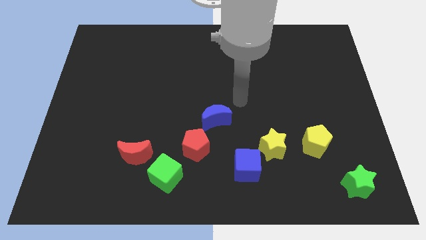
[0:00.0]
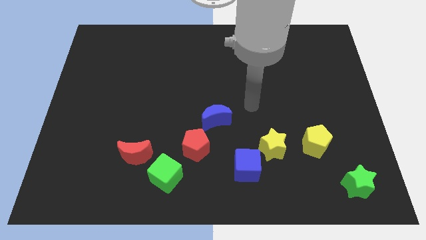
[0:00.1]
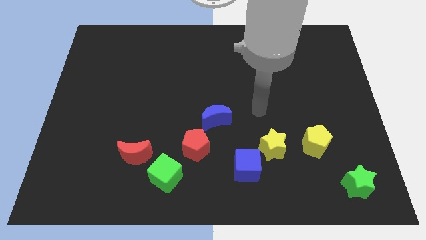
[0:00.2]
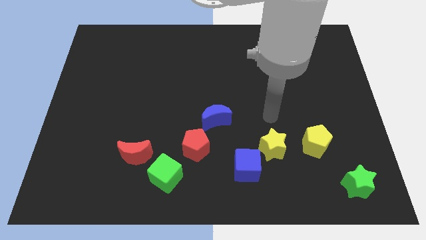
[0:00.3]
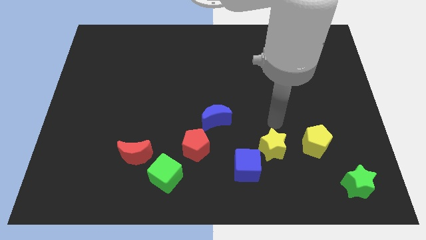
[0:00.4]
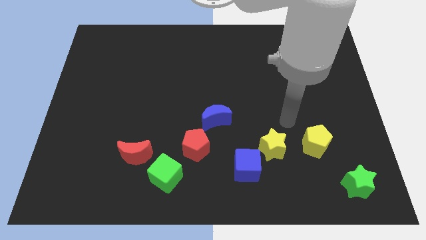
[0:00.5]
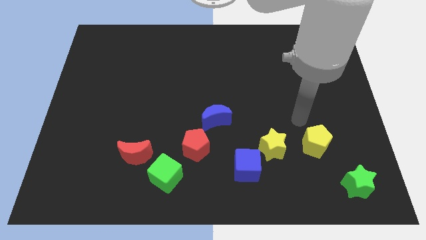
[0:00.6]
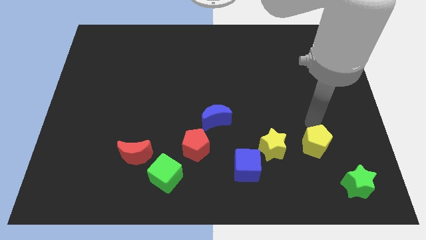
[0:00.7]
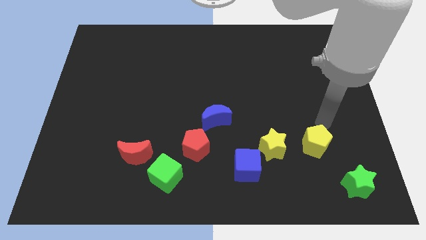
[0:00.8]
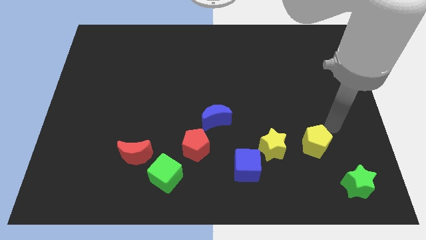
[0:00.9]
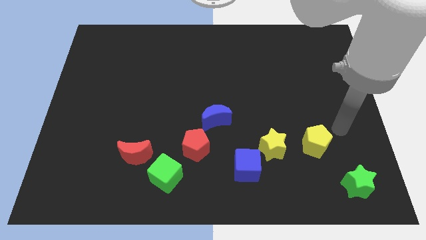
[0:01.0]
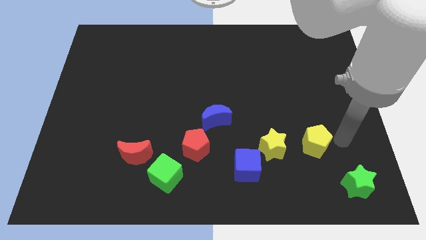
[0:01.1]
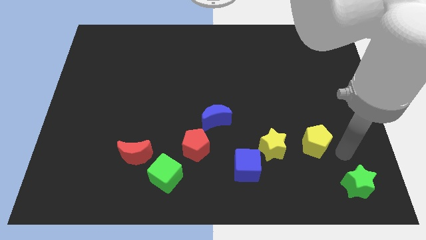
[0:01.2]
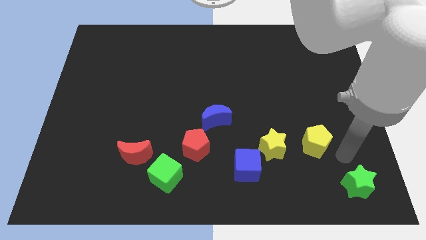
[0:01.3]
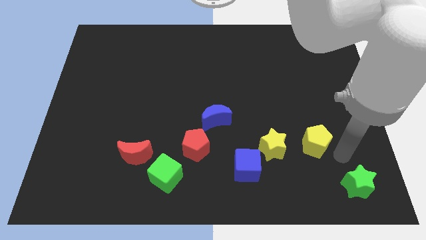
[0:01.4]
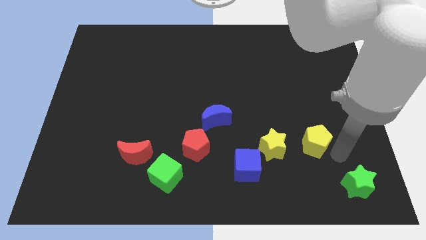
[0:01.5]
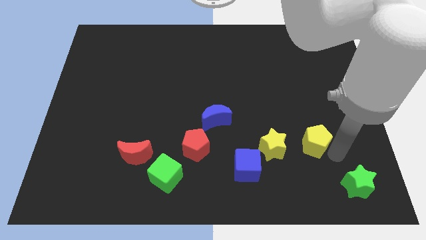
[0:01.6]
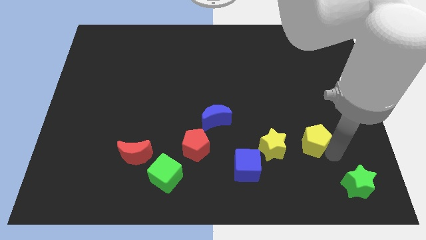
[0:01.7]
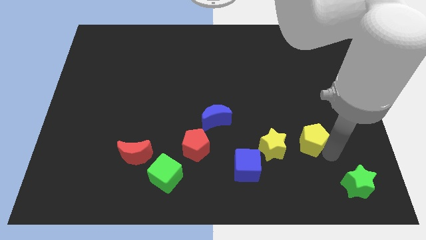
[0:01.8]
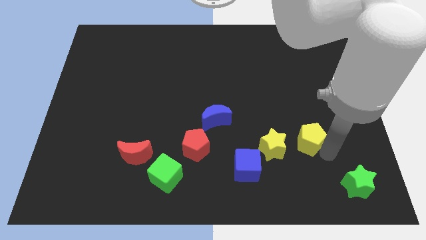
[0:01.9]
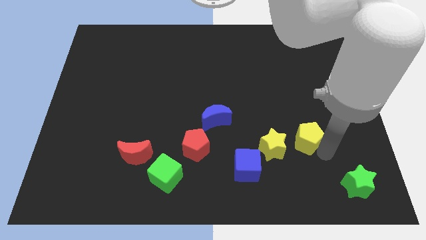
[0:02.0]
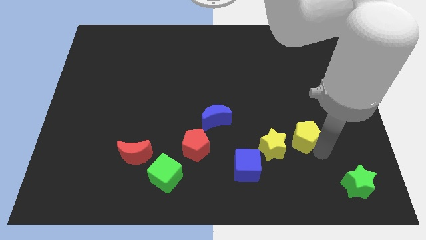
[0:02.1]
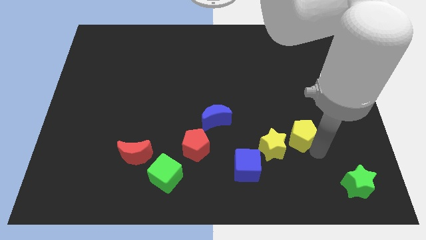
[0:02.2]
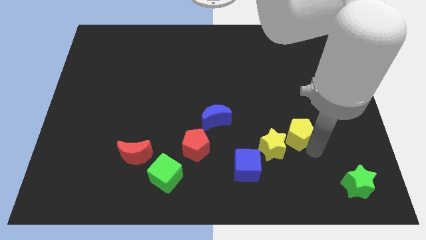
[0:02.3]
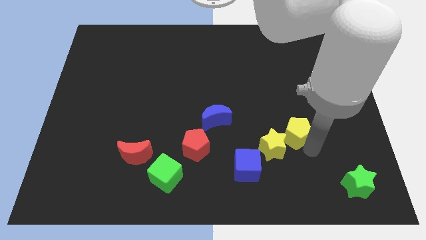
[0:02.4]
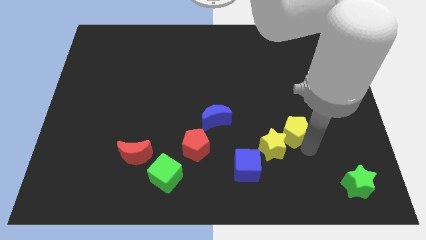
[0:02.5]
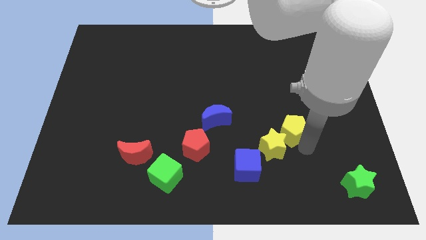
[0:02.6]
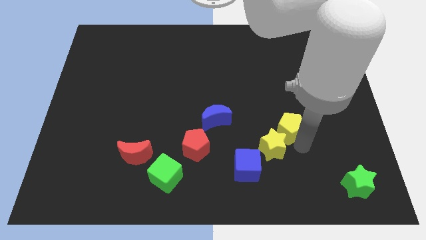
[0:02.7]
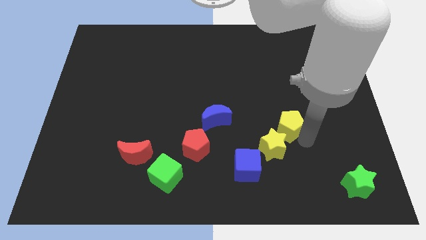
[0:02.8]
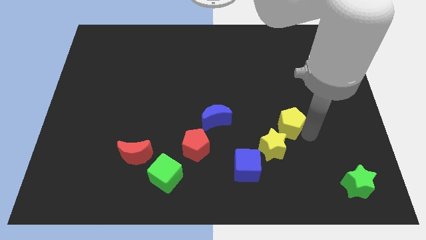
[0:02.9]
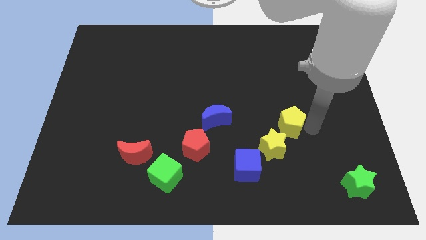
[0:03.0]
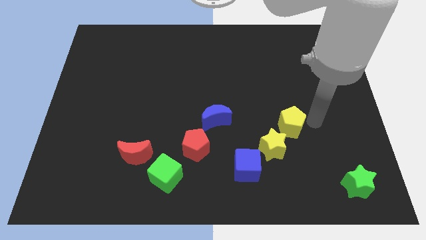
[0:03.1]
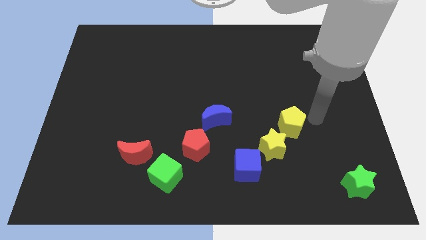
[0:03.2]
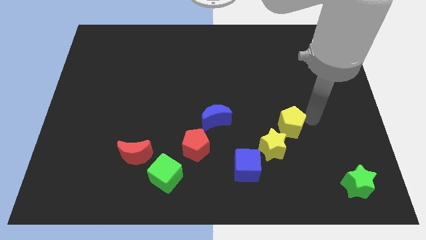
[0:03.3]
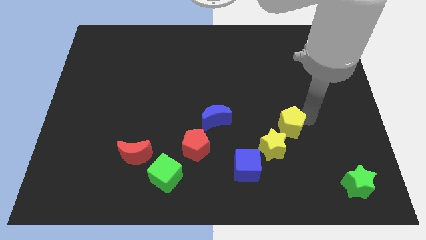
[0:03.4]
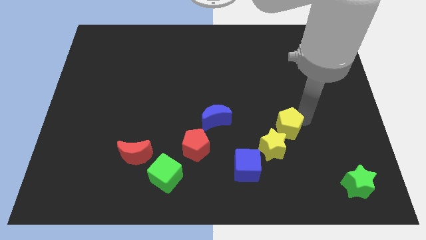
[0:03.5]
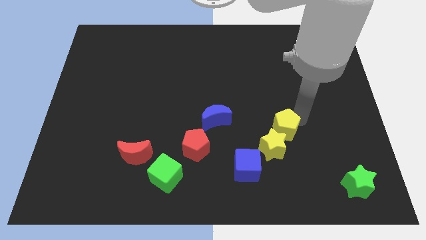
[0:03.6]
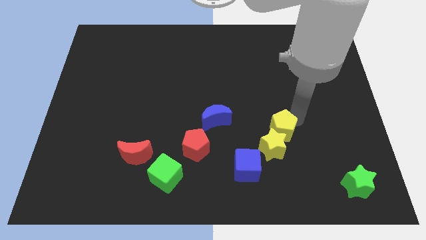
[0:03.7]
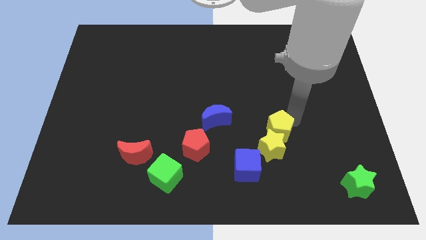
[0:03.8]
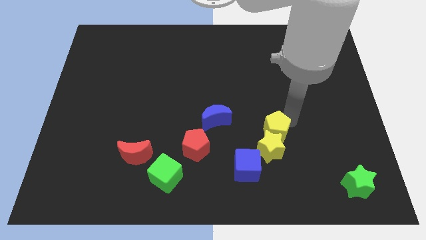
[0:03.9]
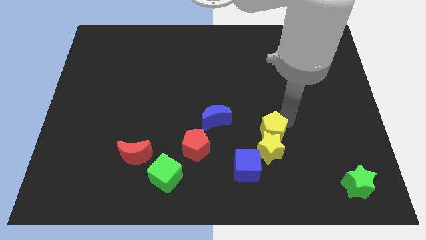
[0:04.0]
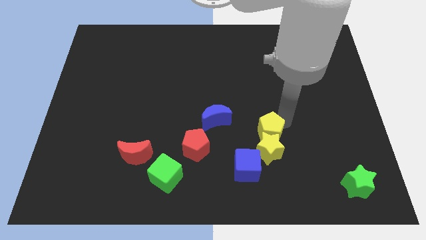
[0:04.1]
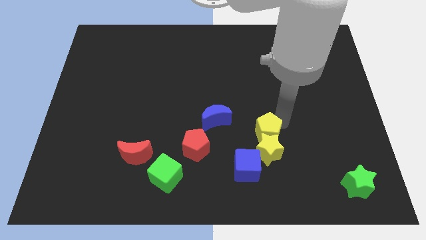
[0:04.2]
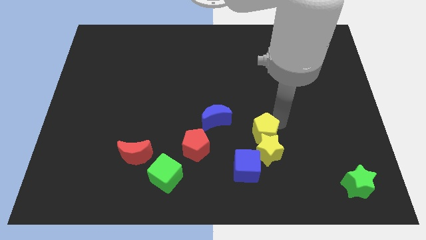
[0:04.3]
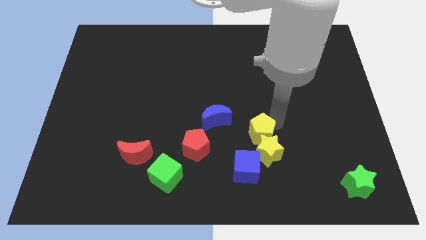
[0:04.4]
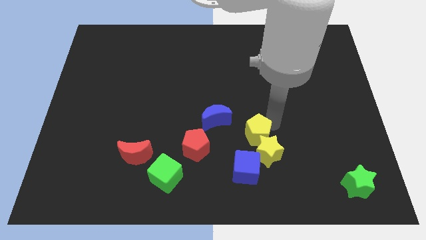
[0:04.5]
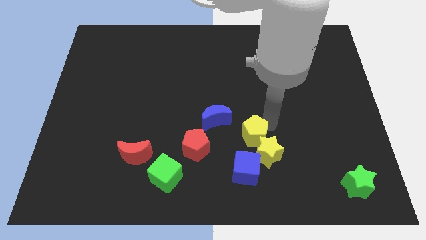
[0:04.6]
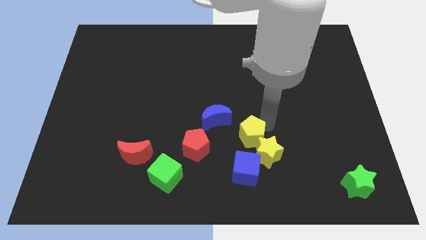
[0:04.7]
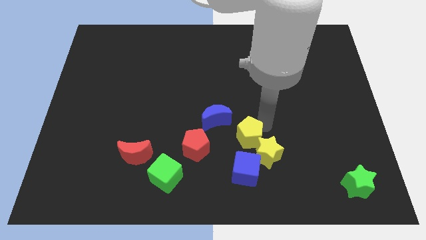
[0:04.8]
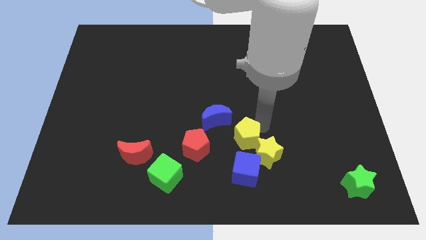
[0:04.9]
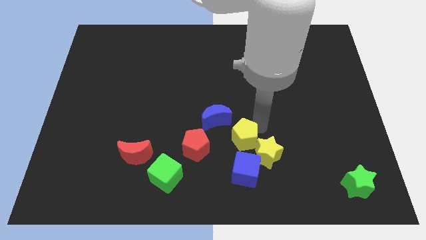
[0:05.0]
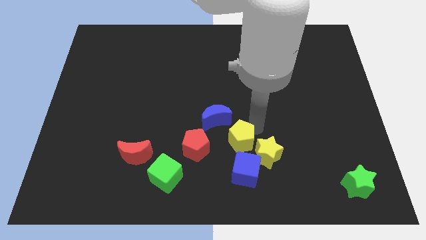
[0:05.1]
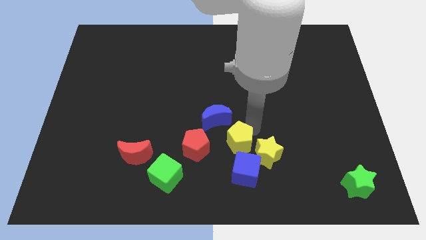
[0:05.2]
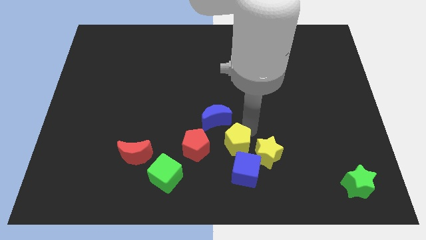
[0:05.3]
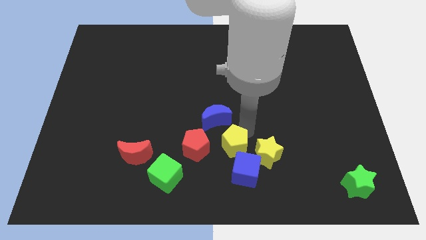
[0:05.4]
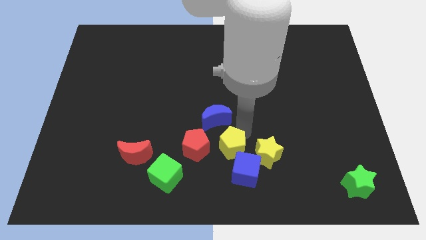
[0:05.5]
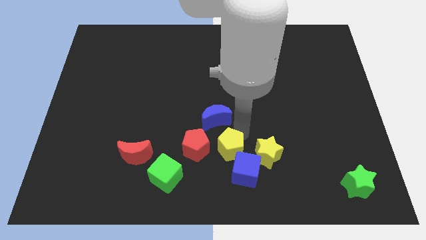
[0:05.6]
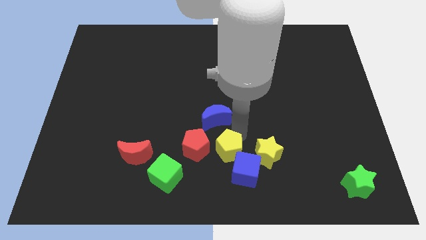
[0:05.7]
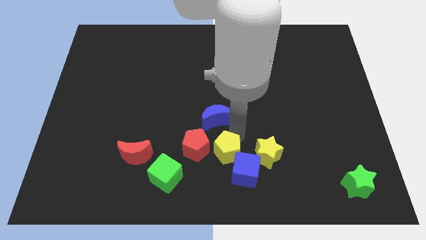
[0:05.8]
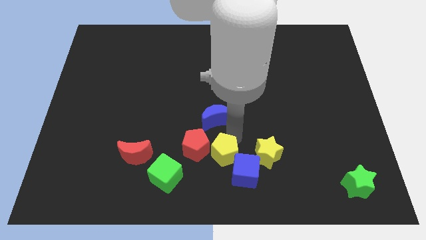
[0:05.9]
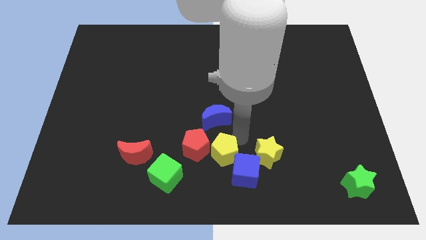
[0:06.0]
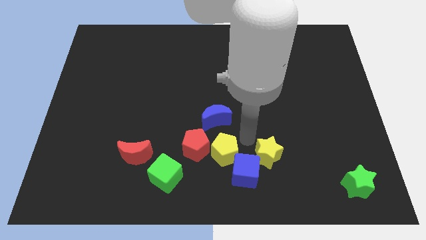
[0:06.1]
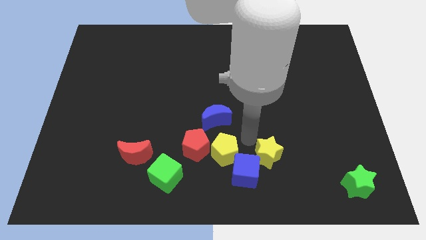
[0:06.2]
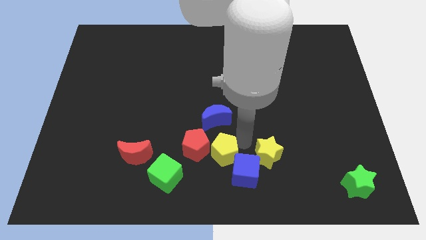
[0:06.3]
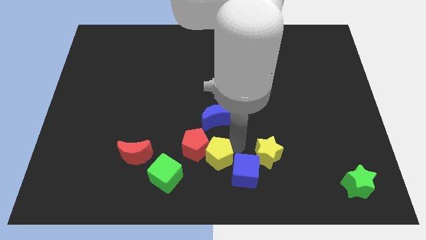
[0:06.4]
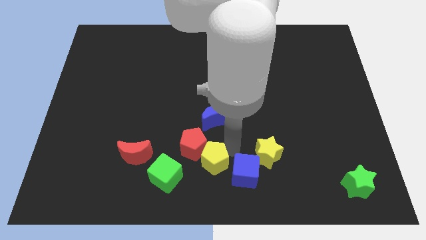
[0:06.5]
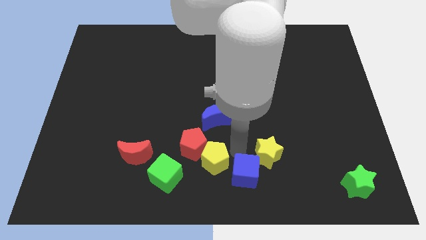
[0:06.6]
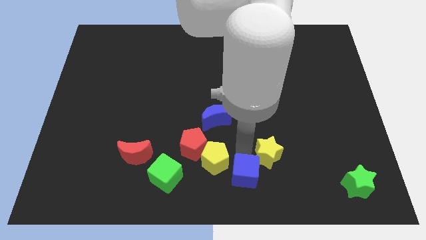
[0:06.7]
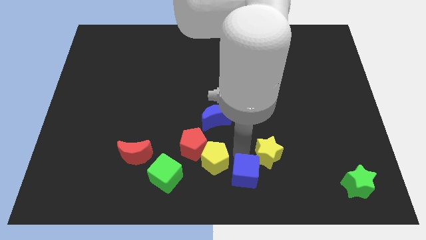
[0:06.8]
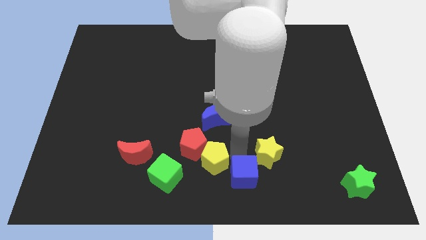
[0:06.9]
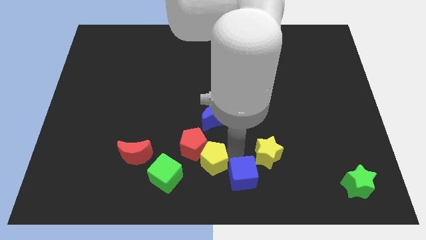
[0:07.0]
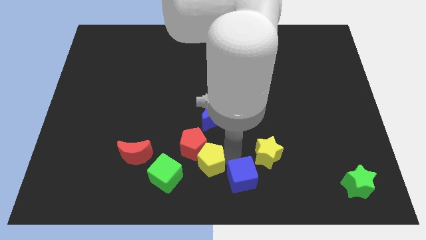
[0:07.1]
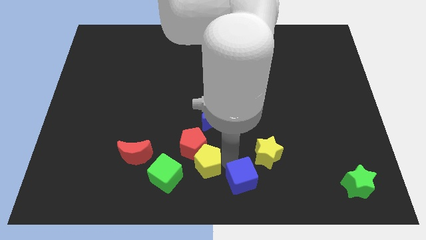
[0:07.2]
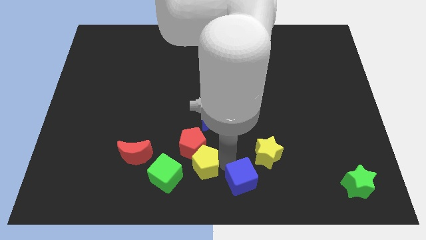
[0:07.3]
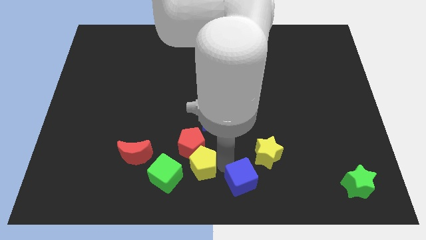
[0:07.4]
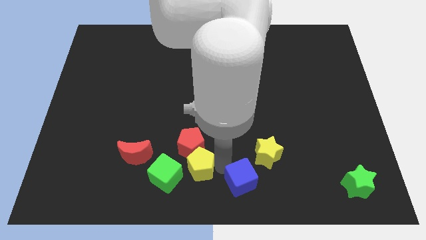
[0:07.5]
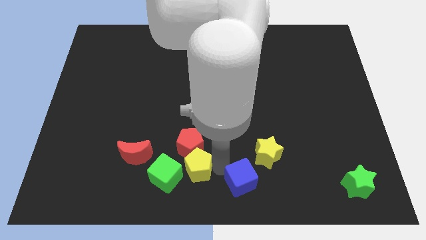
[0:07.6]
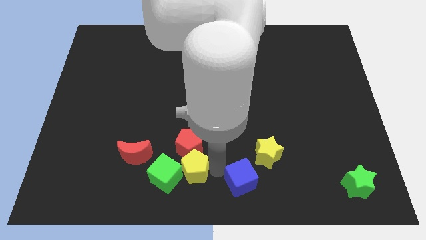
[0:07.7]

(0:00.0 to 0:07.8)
put the yellow pentagon next to the green cube
